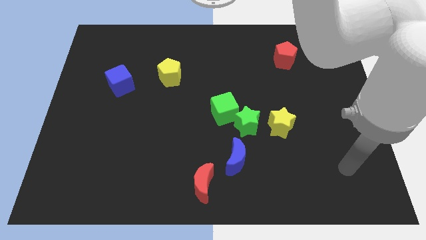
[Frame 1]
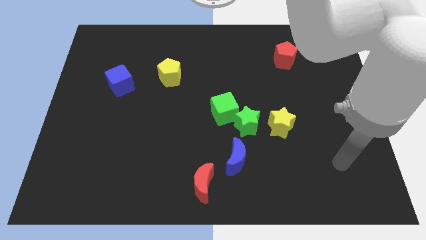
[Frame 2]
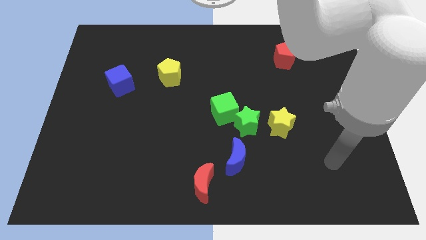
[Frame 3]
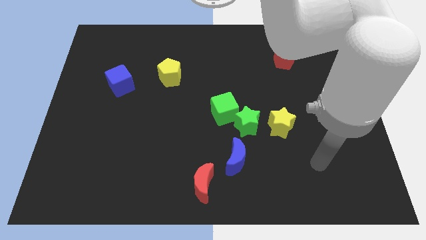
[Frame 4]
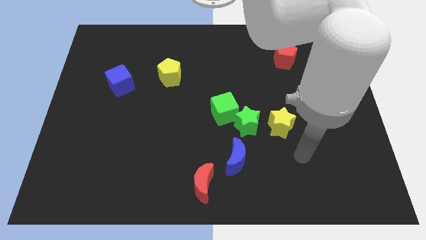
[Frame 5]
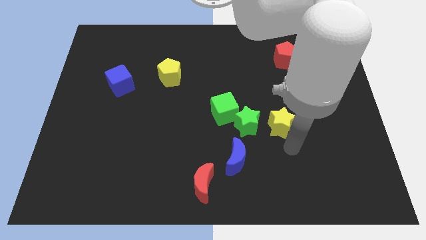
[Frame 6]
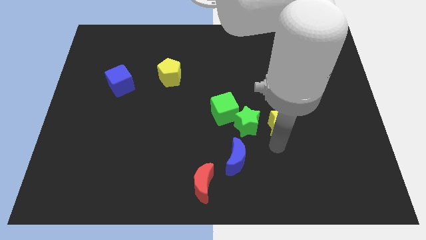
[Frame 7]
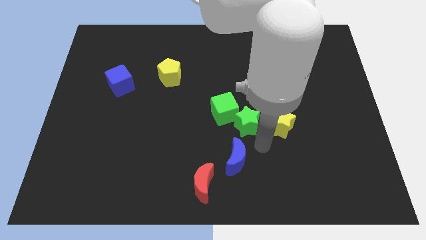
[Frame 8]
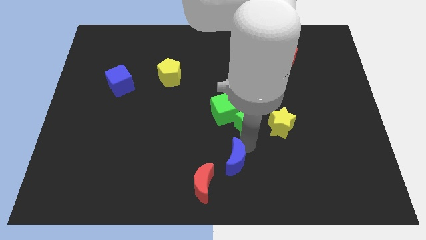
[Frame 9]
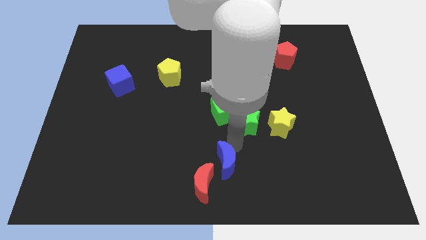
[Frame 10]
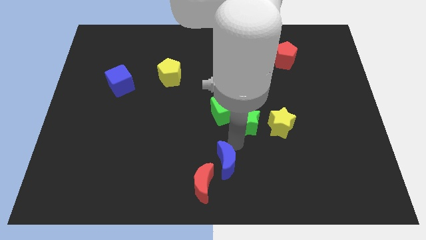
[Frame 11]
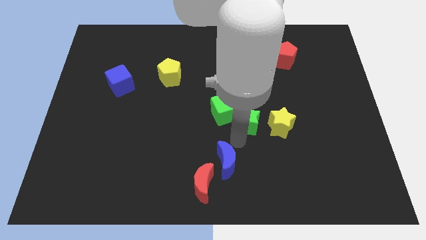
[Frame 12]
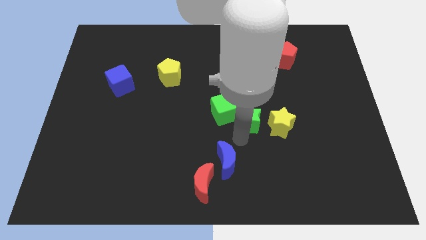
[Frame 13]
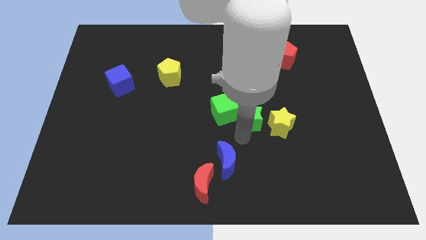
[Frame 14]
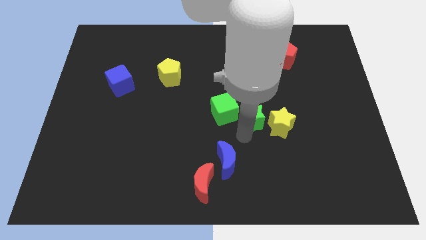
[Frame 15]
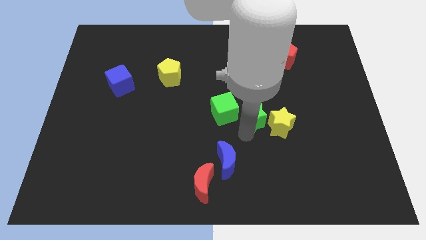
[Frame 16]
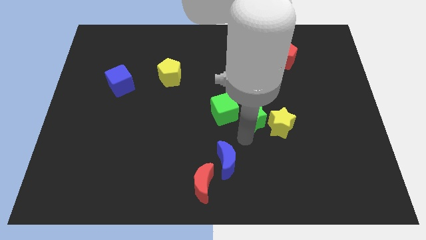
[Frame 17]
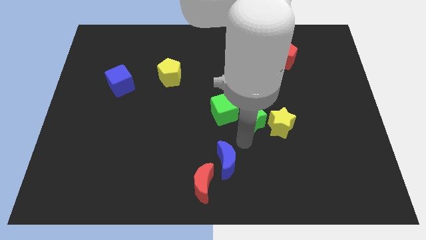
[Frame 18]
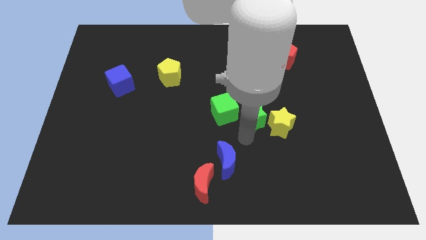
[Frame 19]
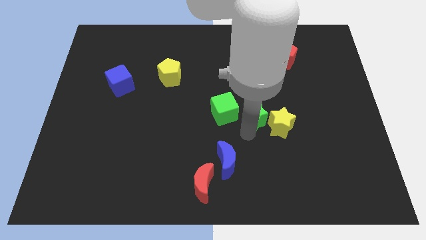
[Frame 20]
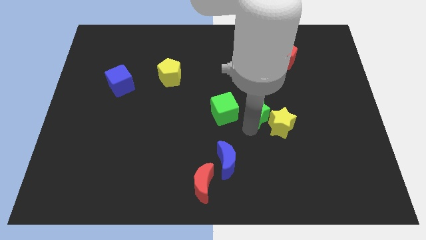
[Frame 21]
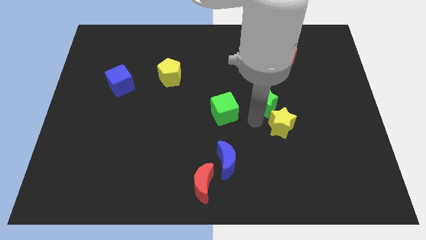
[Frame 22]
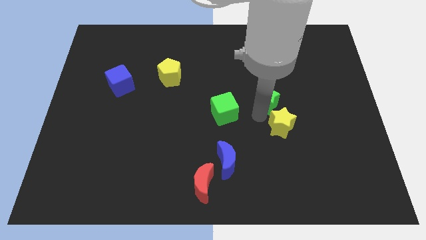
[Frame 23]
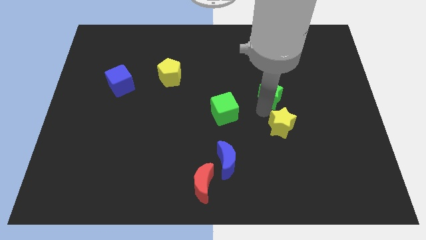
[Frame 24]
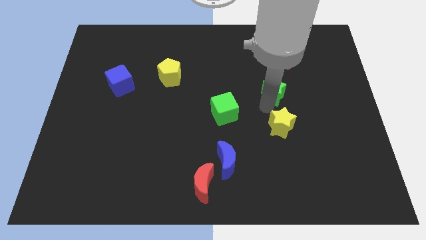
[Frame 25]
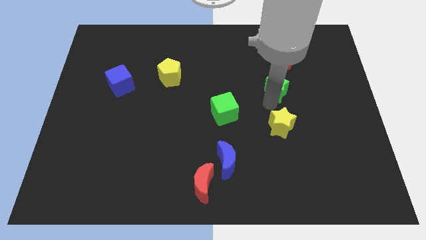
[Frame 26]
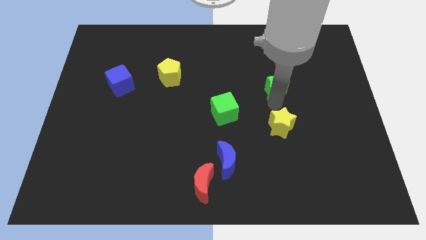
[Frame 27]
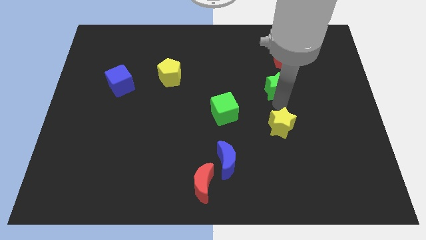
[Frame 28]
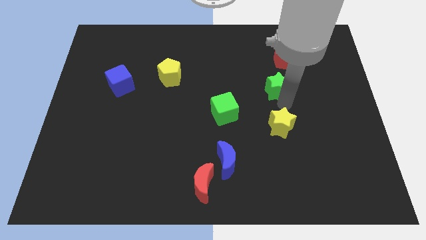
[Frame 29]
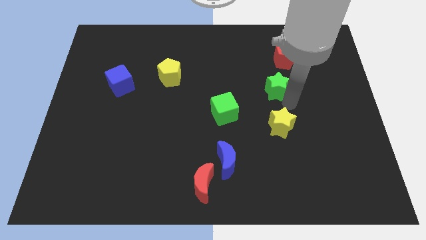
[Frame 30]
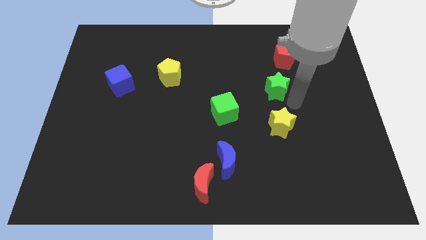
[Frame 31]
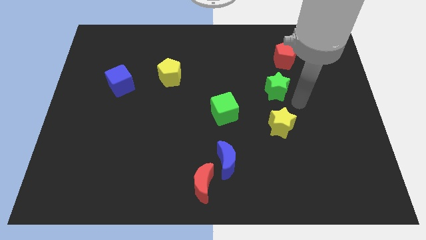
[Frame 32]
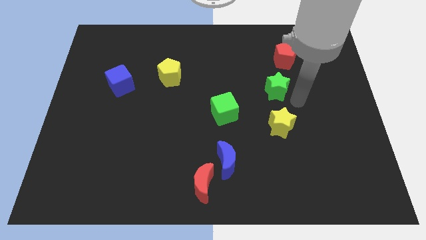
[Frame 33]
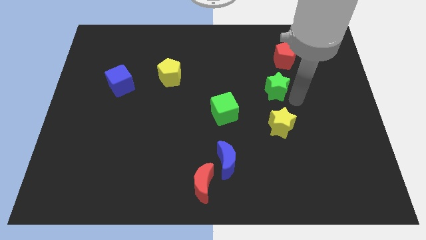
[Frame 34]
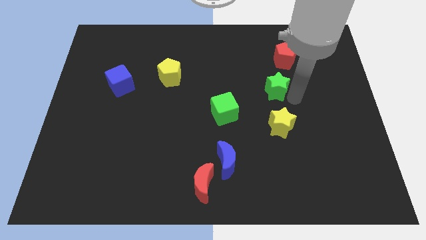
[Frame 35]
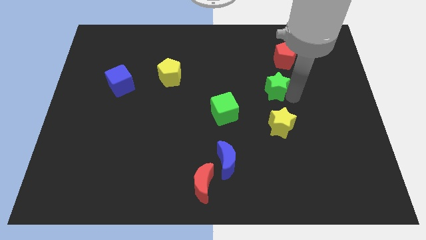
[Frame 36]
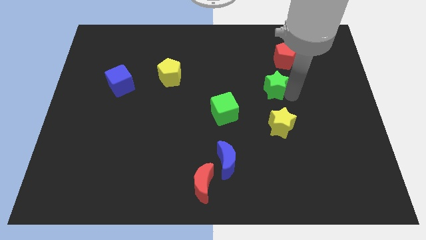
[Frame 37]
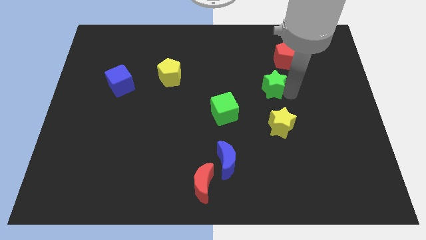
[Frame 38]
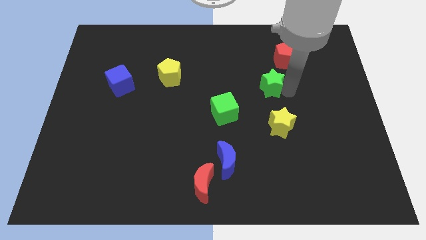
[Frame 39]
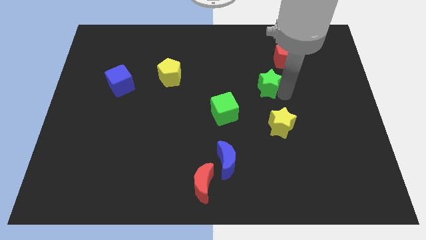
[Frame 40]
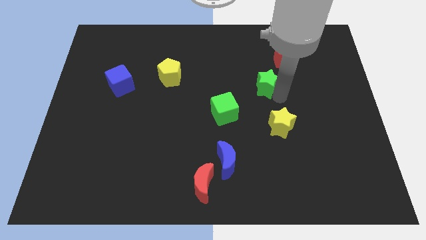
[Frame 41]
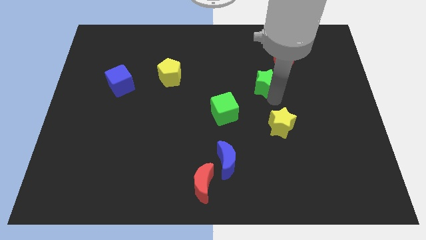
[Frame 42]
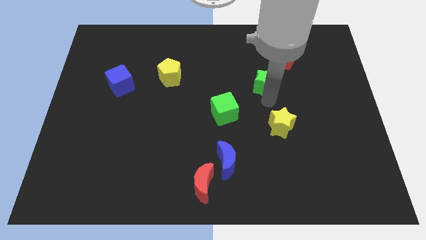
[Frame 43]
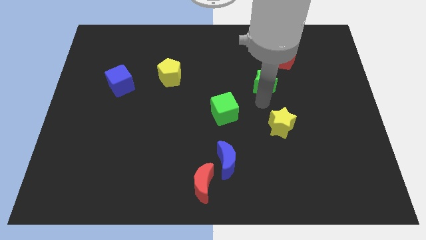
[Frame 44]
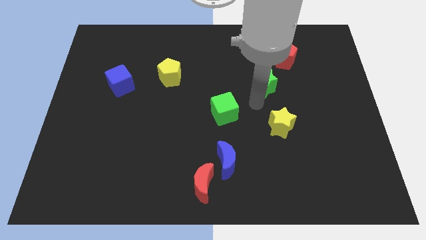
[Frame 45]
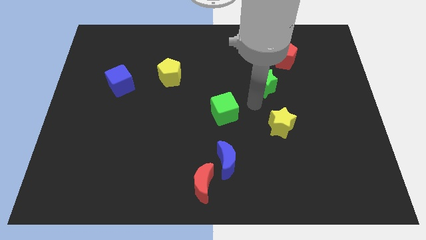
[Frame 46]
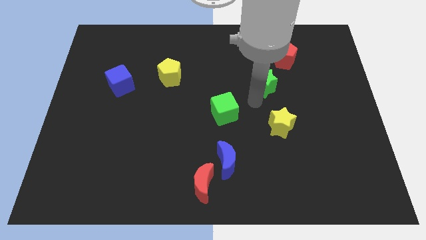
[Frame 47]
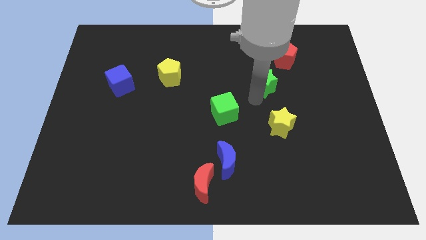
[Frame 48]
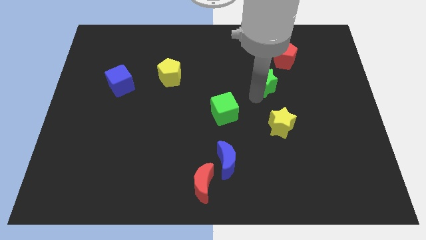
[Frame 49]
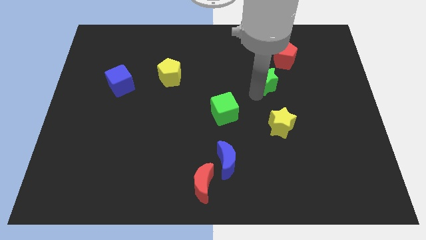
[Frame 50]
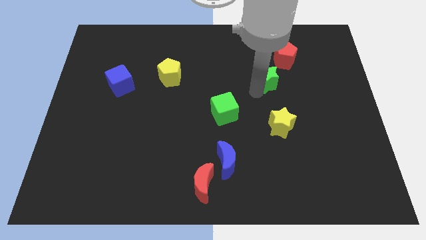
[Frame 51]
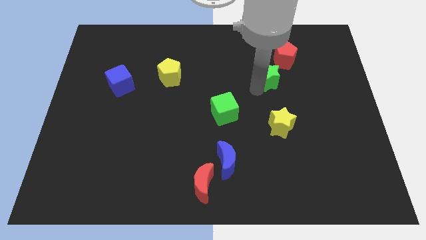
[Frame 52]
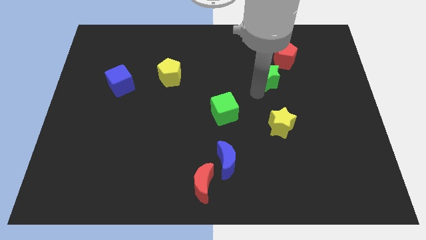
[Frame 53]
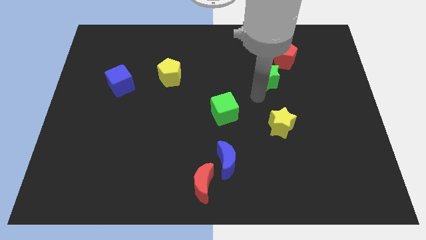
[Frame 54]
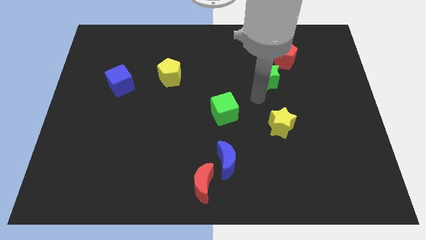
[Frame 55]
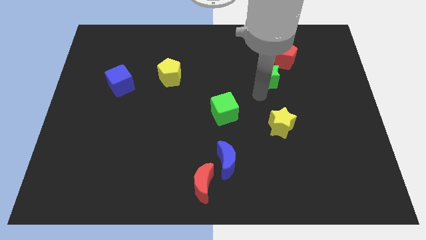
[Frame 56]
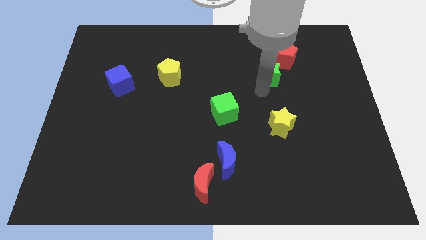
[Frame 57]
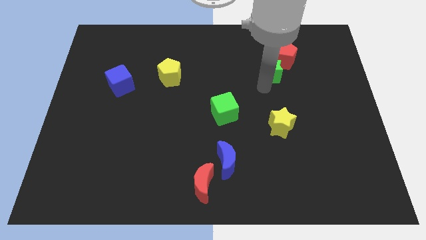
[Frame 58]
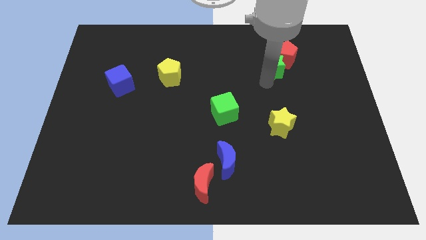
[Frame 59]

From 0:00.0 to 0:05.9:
put the green star next to the red pentagon

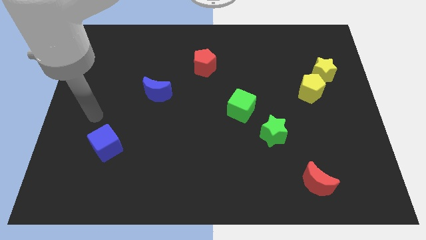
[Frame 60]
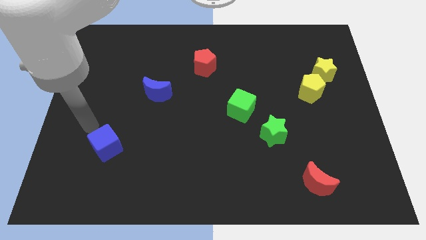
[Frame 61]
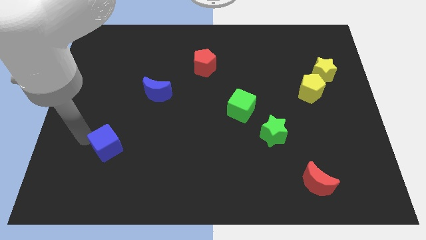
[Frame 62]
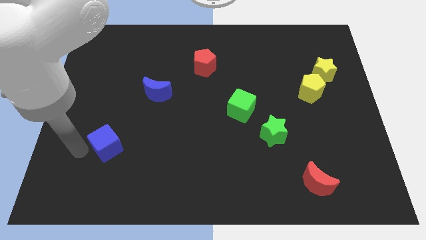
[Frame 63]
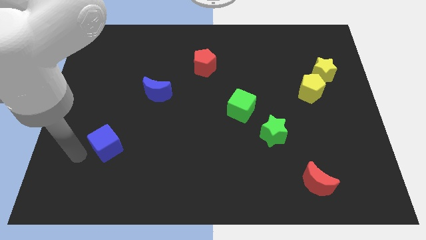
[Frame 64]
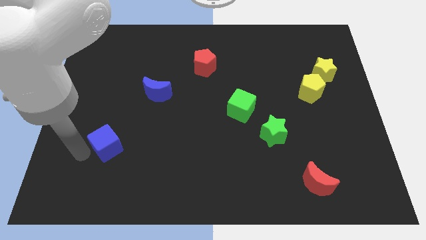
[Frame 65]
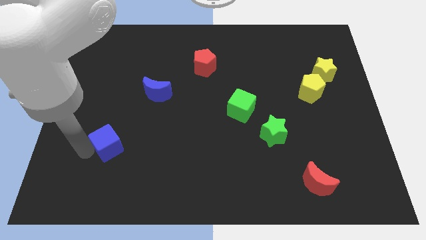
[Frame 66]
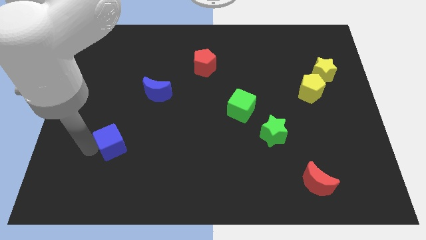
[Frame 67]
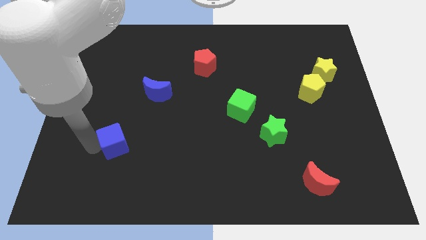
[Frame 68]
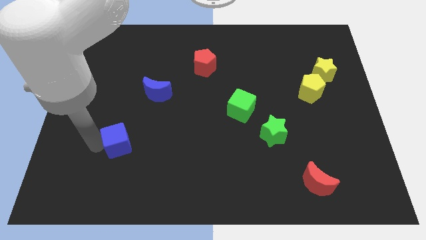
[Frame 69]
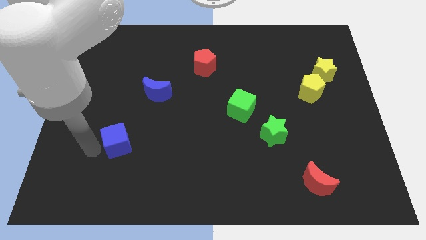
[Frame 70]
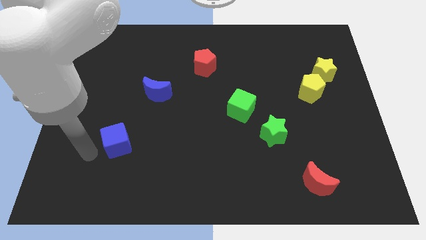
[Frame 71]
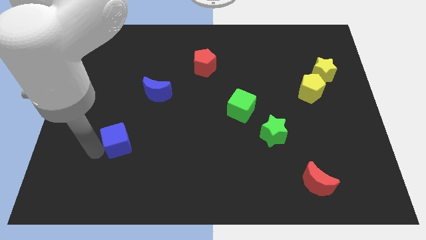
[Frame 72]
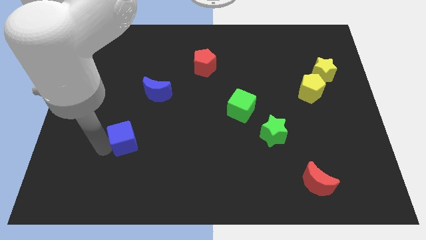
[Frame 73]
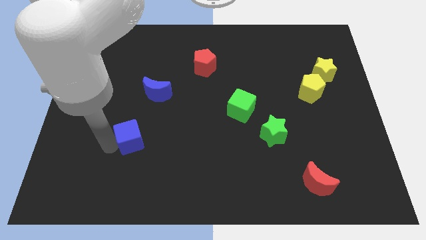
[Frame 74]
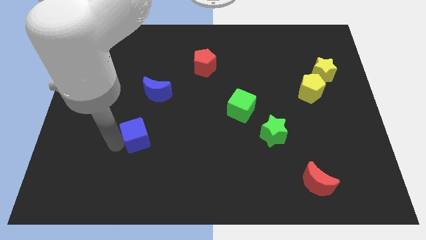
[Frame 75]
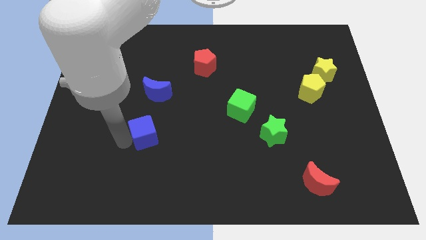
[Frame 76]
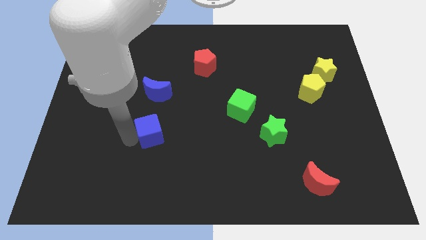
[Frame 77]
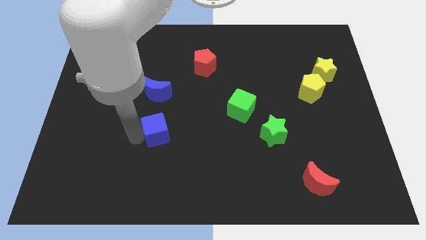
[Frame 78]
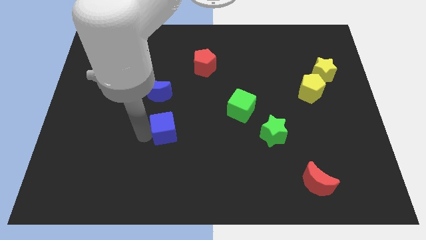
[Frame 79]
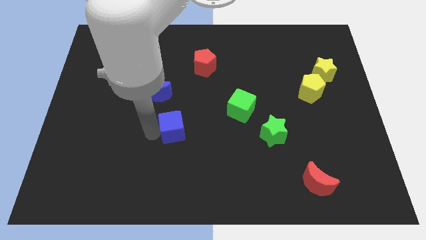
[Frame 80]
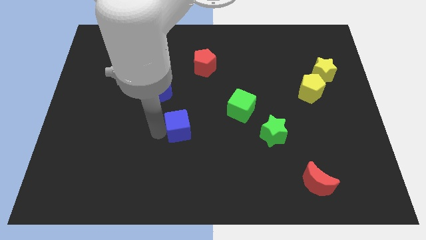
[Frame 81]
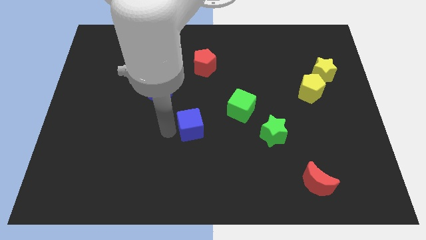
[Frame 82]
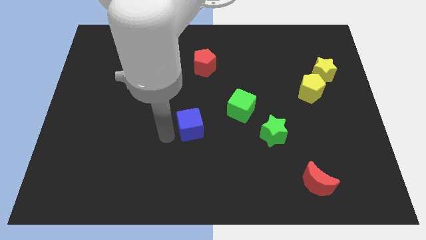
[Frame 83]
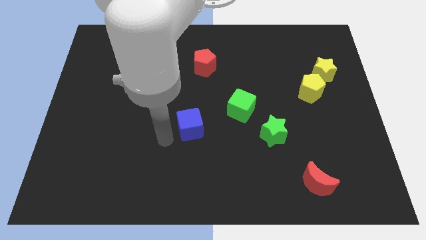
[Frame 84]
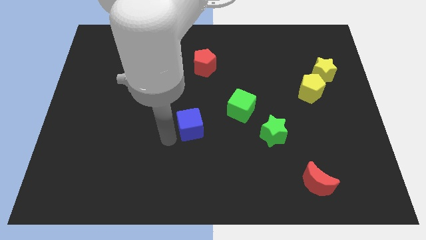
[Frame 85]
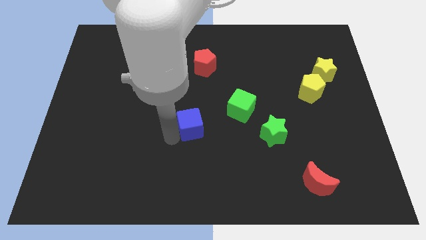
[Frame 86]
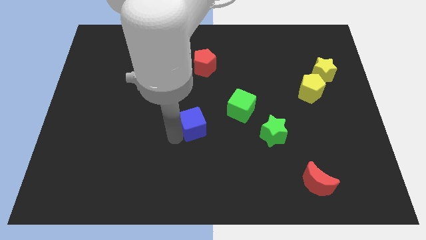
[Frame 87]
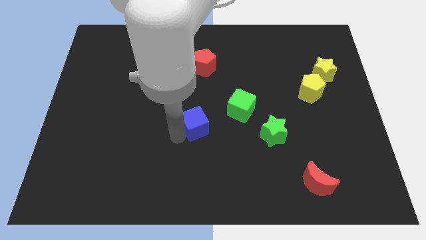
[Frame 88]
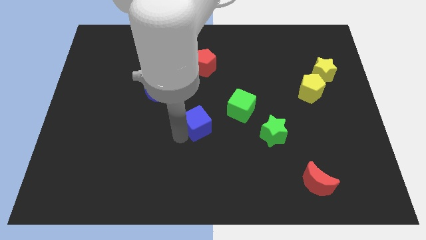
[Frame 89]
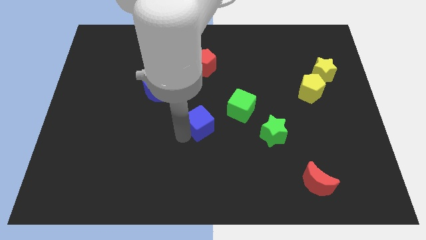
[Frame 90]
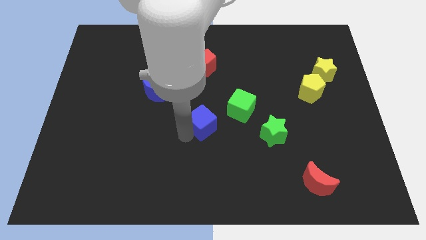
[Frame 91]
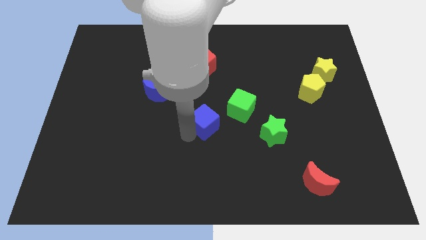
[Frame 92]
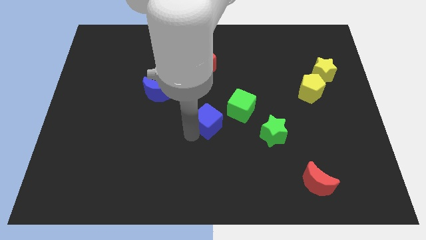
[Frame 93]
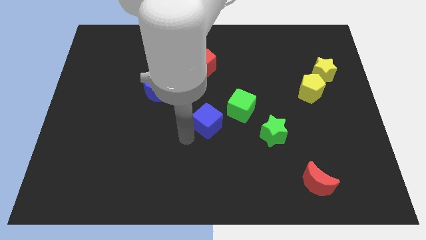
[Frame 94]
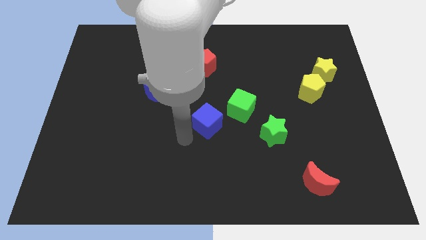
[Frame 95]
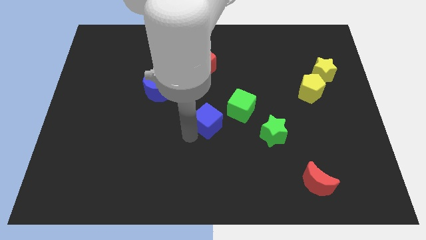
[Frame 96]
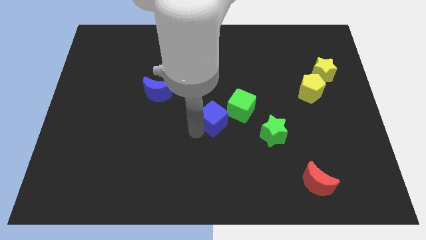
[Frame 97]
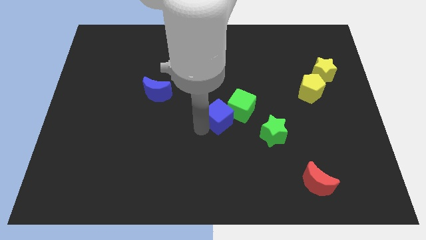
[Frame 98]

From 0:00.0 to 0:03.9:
slide the blue cube close to the green cube
